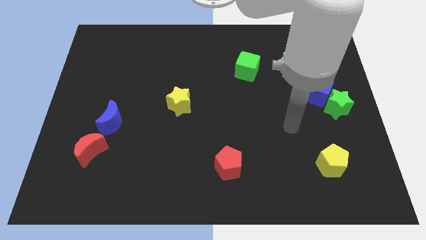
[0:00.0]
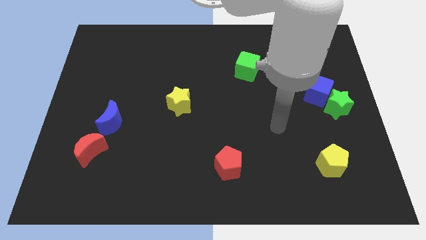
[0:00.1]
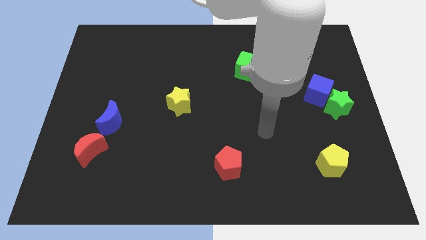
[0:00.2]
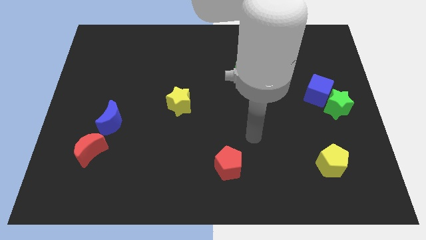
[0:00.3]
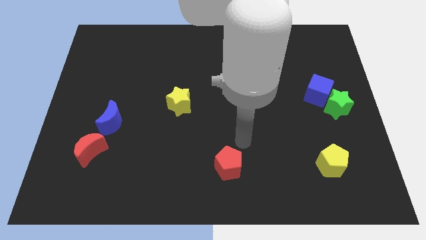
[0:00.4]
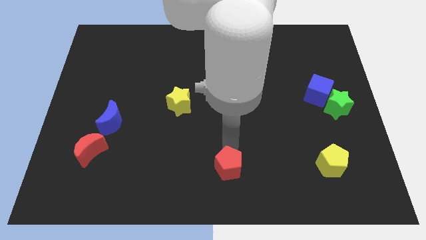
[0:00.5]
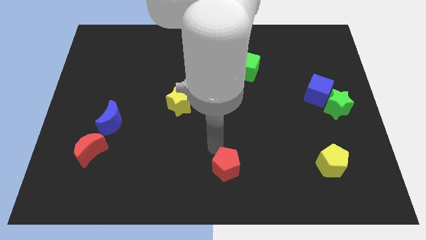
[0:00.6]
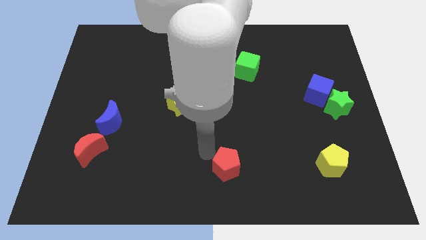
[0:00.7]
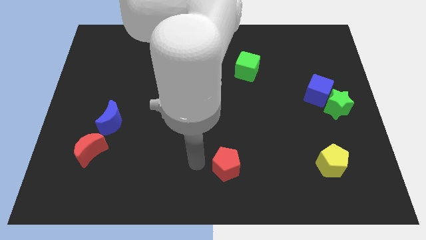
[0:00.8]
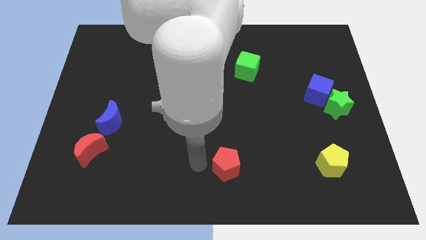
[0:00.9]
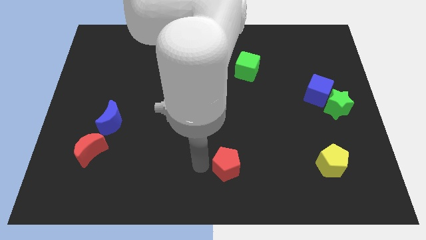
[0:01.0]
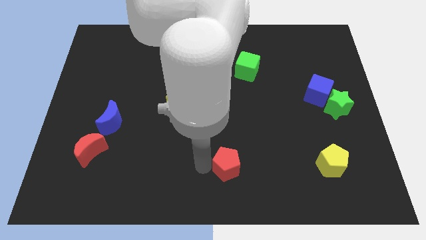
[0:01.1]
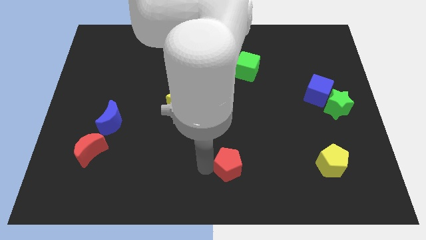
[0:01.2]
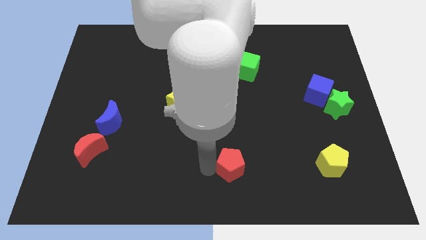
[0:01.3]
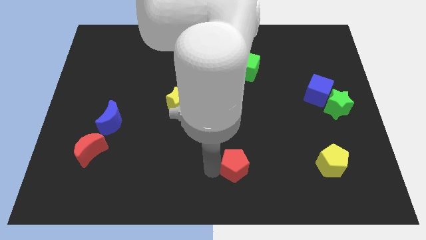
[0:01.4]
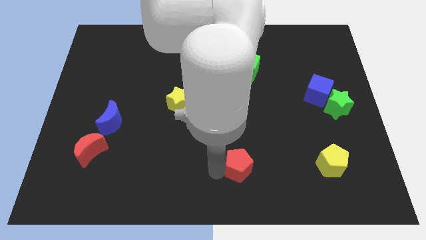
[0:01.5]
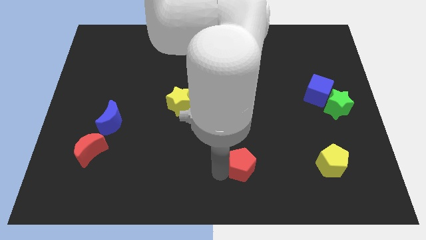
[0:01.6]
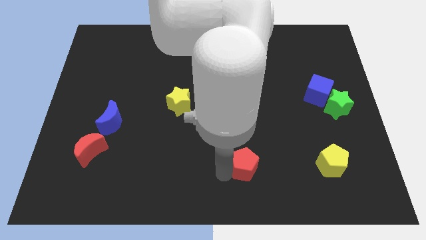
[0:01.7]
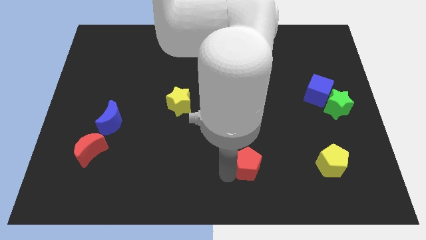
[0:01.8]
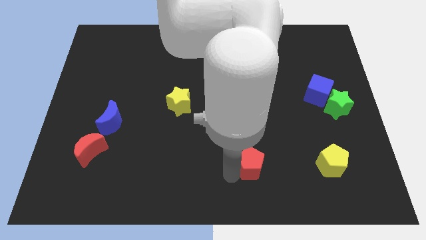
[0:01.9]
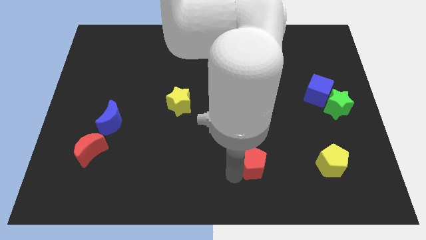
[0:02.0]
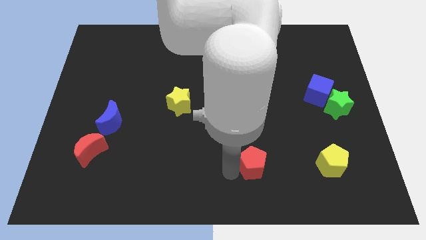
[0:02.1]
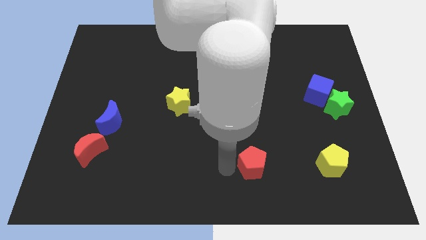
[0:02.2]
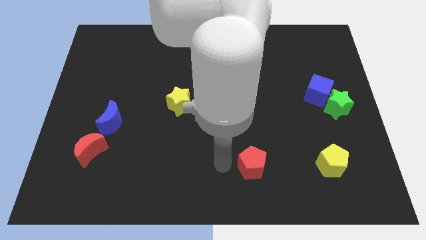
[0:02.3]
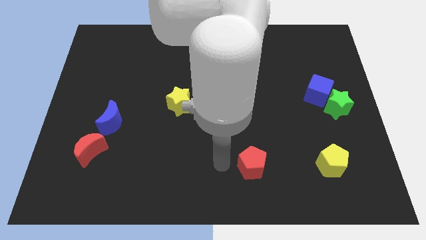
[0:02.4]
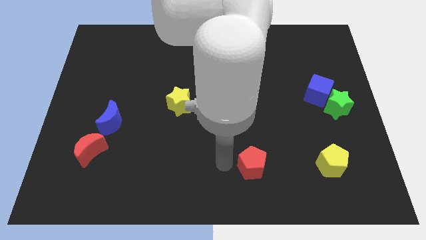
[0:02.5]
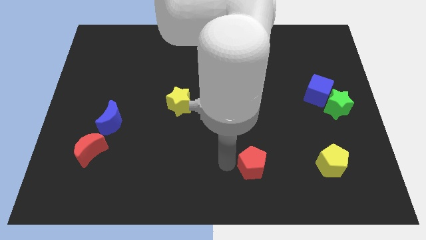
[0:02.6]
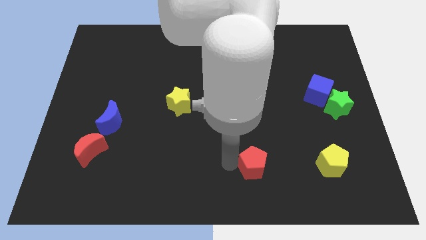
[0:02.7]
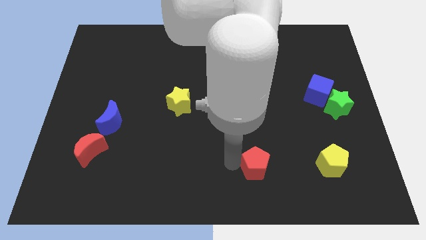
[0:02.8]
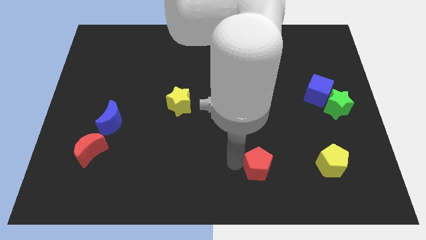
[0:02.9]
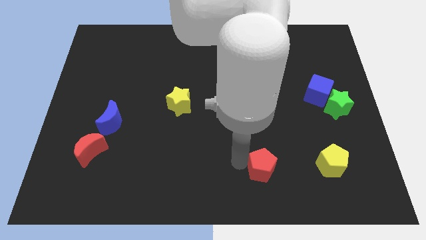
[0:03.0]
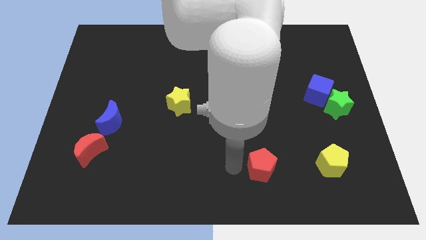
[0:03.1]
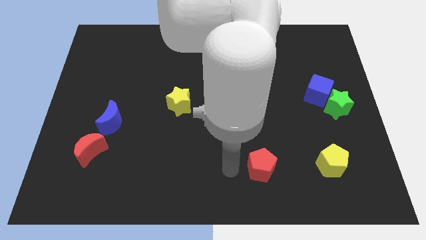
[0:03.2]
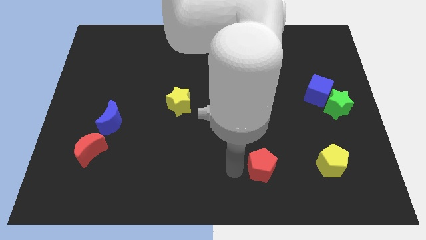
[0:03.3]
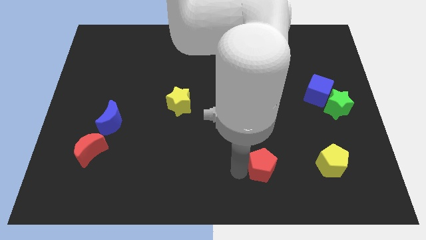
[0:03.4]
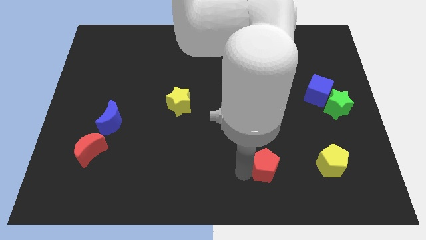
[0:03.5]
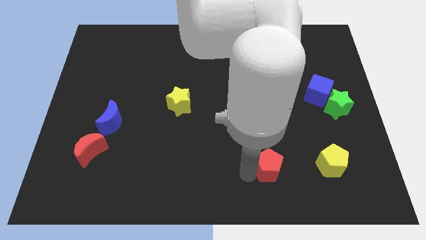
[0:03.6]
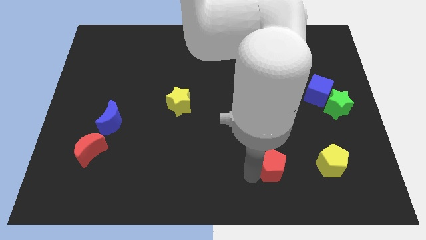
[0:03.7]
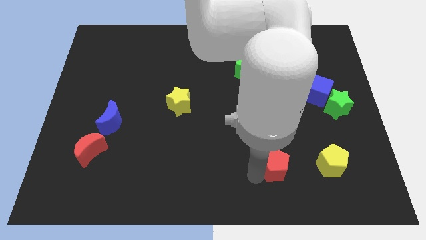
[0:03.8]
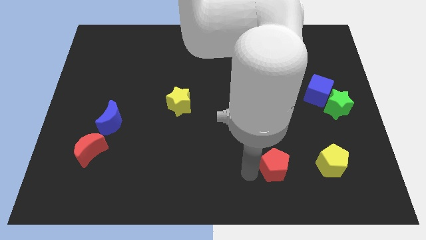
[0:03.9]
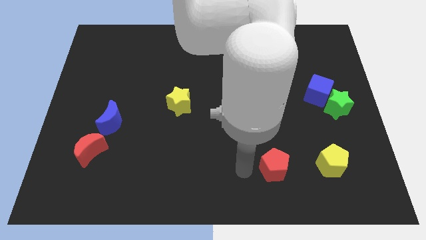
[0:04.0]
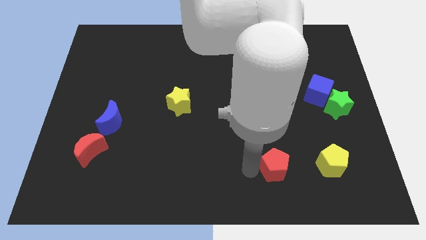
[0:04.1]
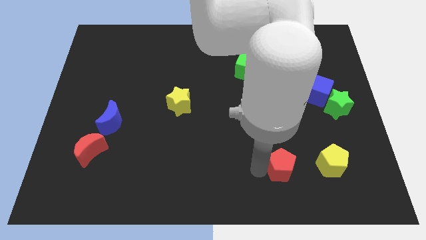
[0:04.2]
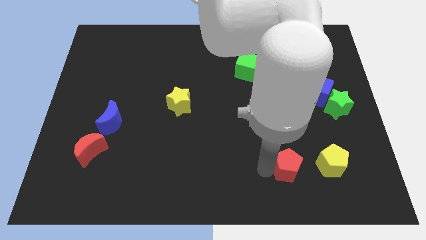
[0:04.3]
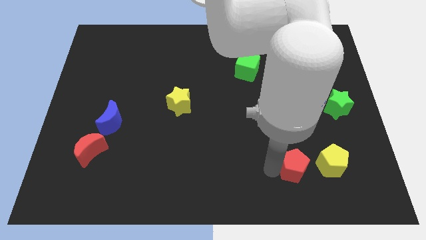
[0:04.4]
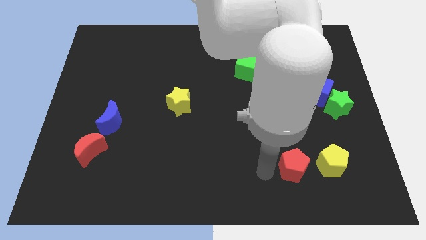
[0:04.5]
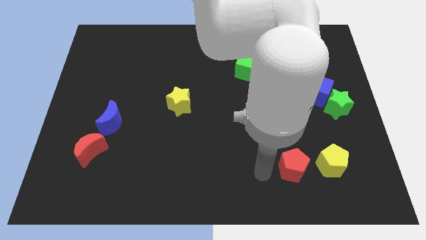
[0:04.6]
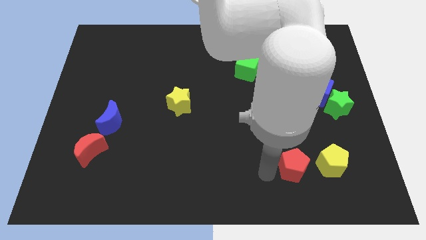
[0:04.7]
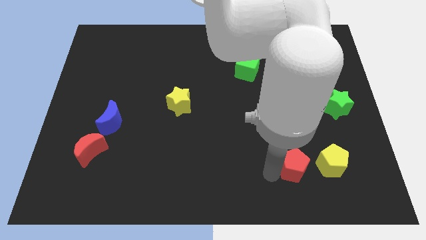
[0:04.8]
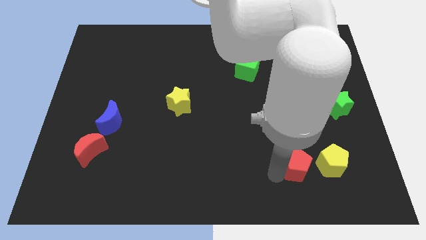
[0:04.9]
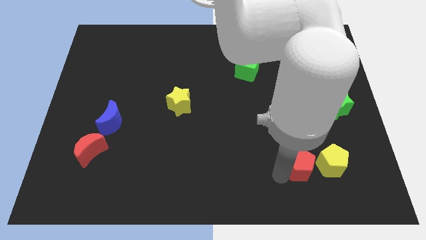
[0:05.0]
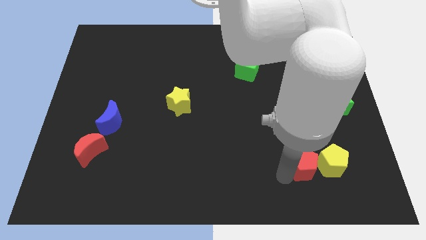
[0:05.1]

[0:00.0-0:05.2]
slide the red pentagon next to the yellow pentagon

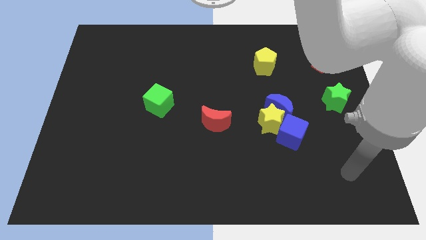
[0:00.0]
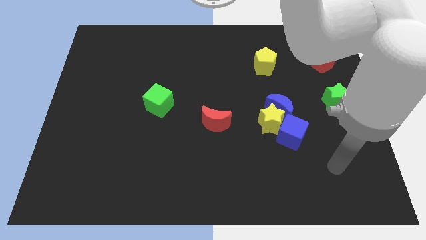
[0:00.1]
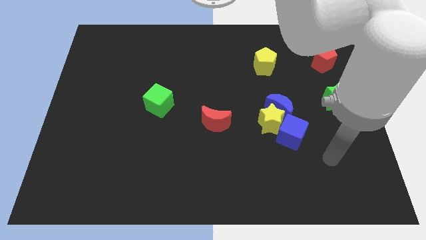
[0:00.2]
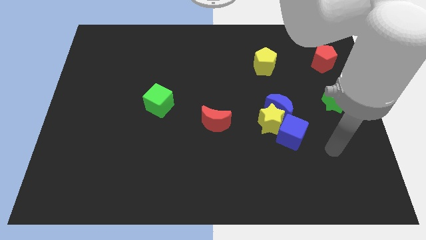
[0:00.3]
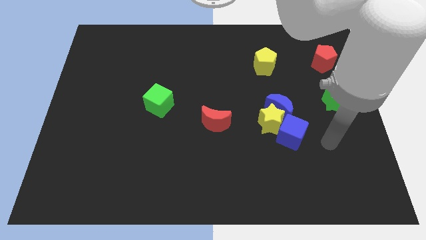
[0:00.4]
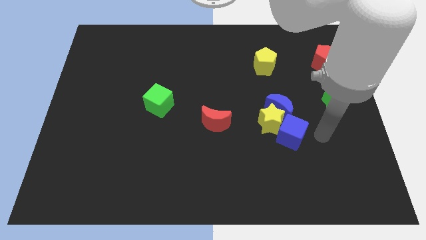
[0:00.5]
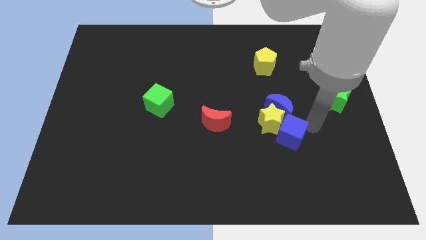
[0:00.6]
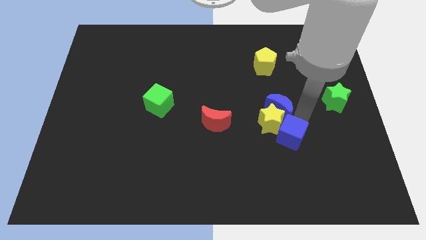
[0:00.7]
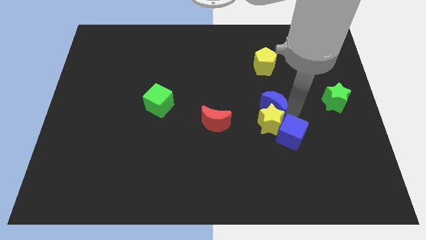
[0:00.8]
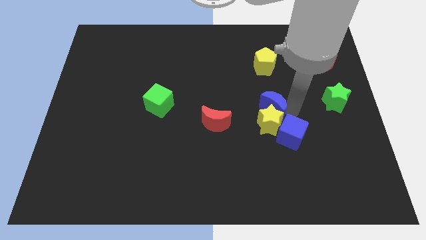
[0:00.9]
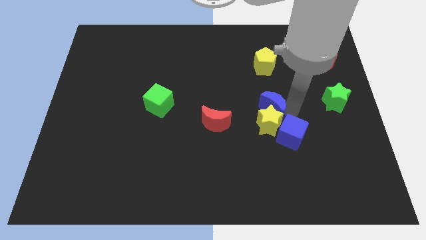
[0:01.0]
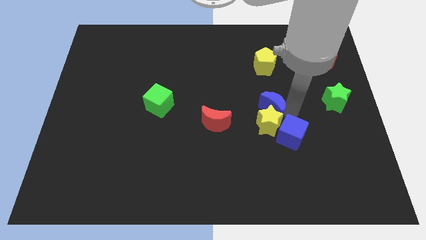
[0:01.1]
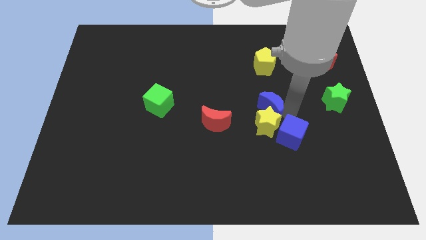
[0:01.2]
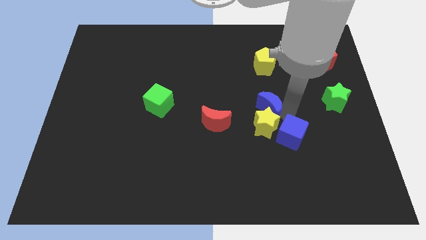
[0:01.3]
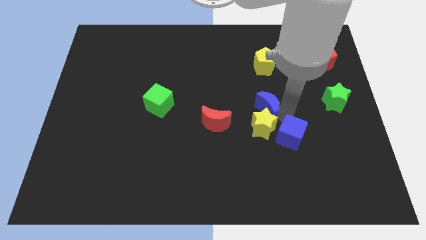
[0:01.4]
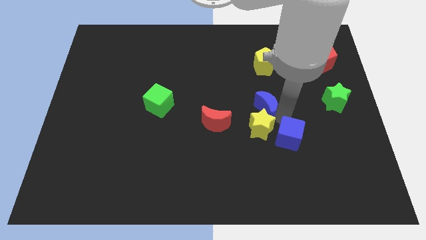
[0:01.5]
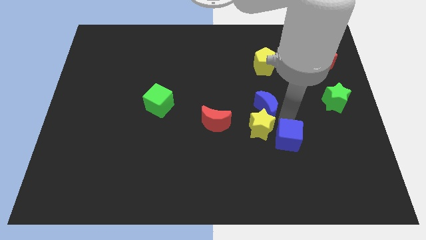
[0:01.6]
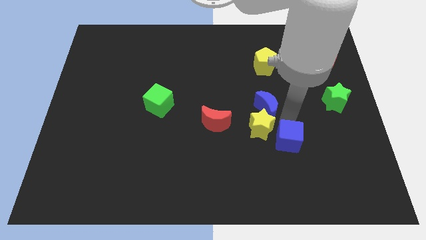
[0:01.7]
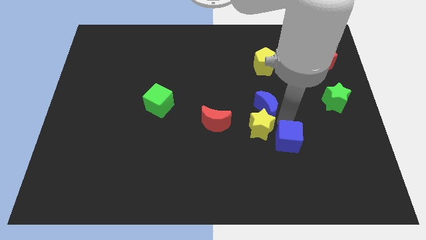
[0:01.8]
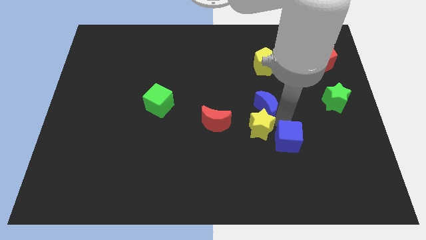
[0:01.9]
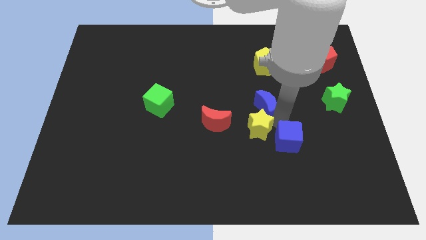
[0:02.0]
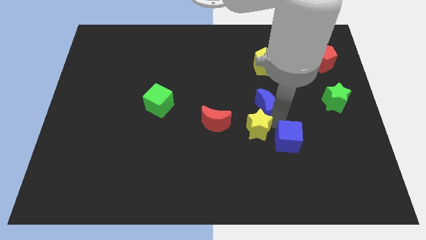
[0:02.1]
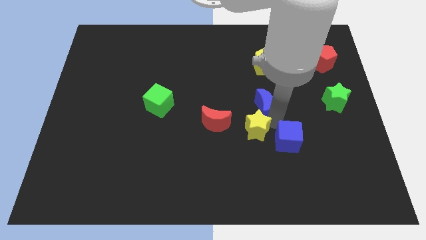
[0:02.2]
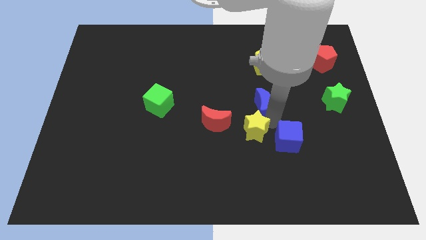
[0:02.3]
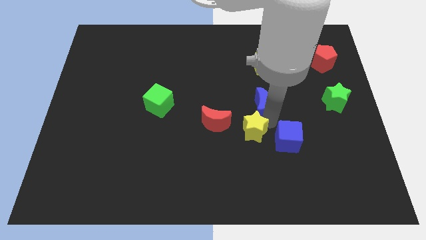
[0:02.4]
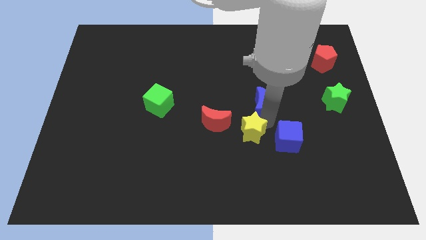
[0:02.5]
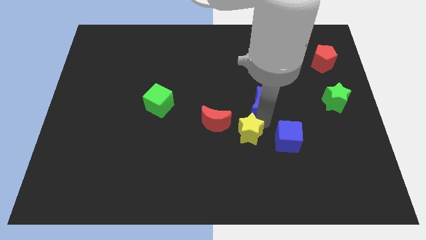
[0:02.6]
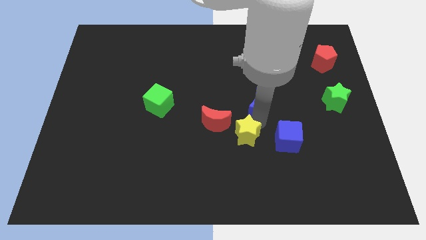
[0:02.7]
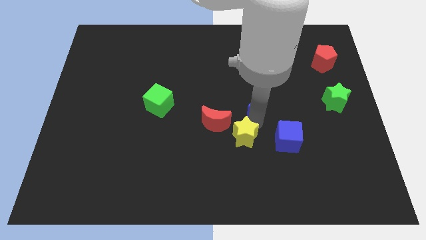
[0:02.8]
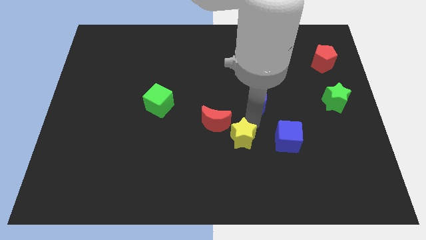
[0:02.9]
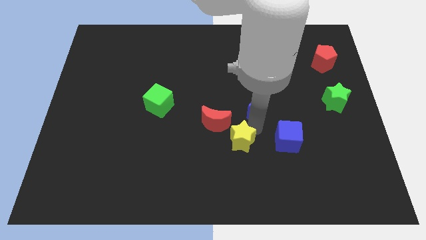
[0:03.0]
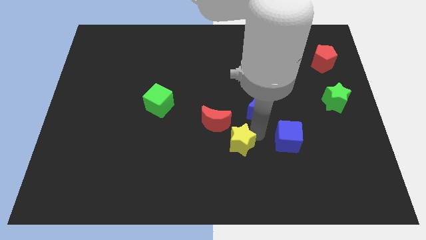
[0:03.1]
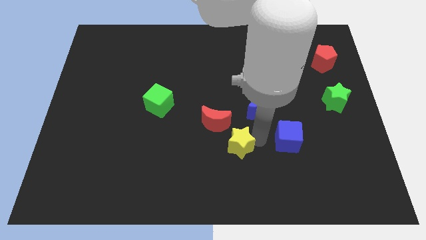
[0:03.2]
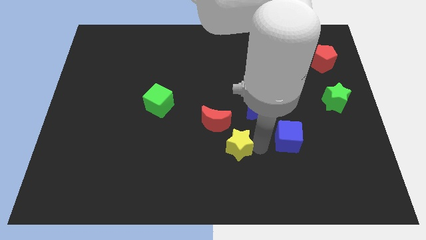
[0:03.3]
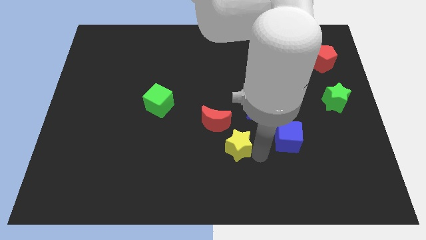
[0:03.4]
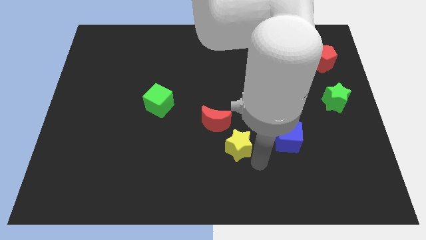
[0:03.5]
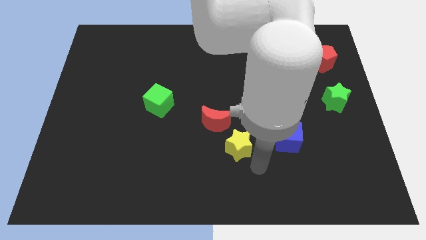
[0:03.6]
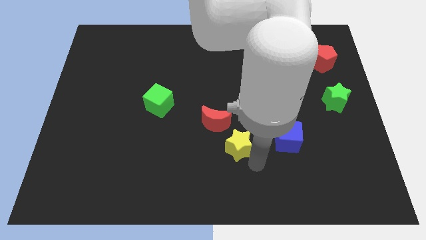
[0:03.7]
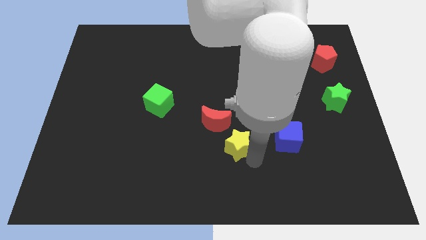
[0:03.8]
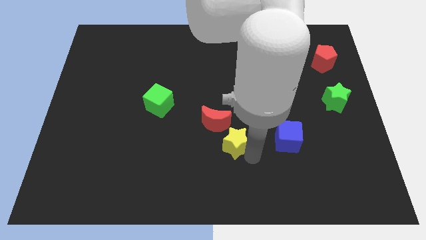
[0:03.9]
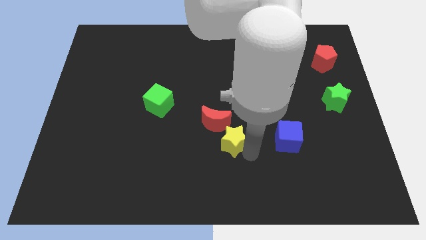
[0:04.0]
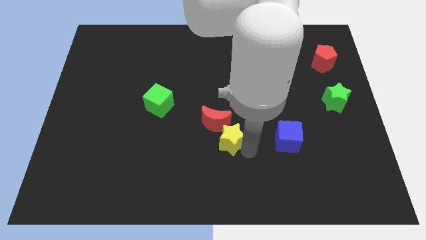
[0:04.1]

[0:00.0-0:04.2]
put the yellow star to the red moon
